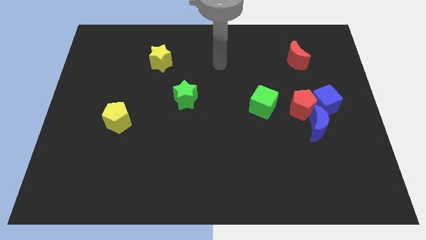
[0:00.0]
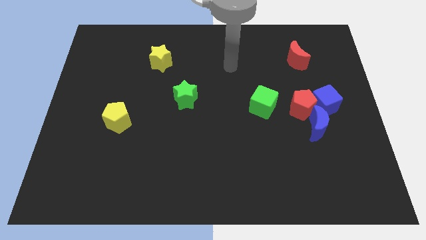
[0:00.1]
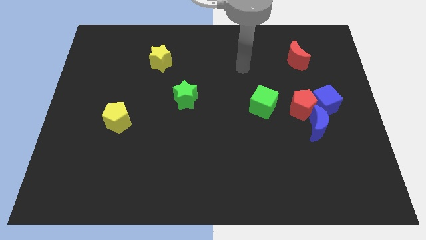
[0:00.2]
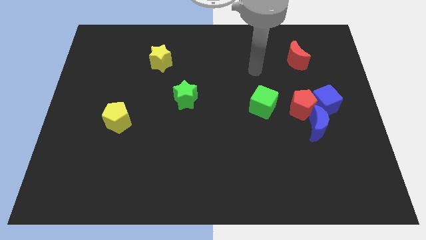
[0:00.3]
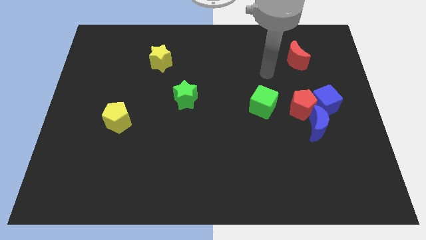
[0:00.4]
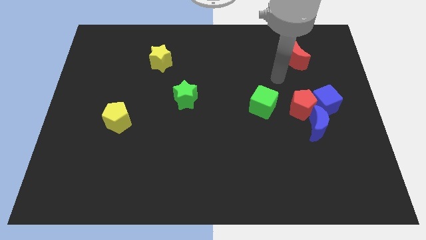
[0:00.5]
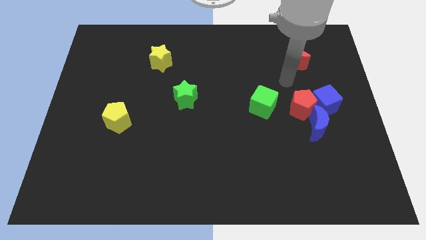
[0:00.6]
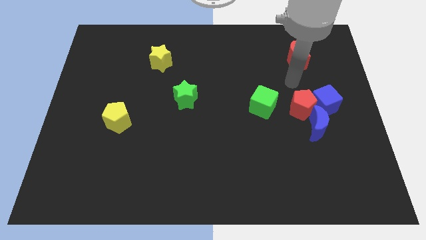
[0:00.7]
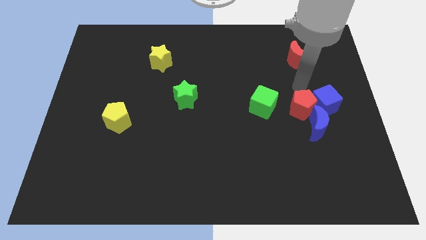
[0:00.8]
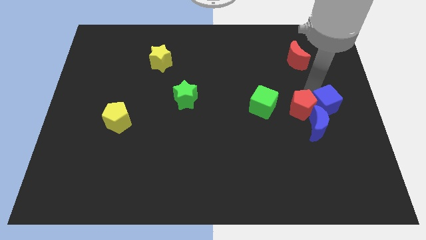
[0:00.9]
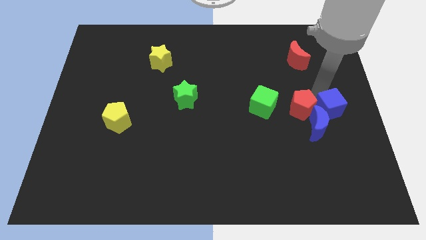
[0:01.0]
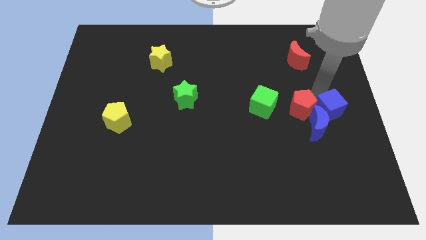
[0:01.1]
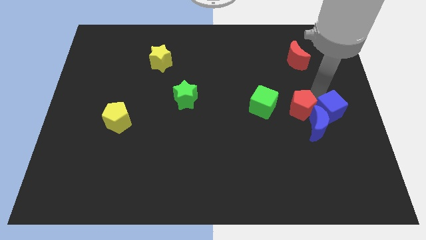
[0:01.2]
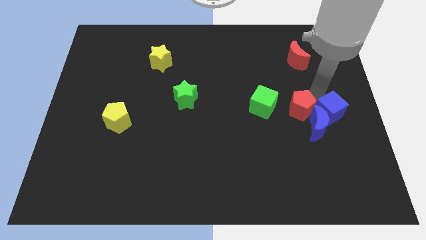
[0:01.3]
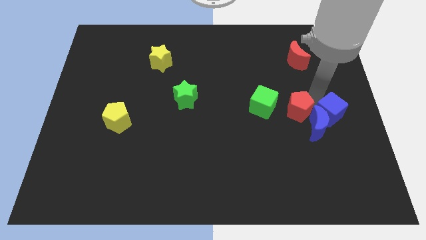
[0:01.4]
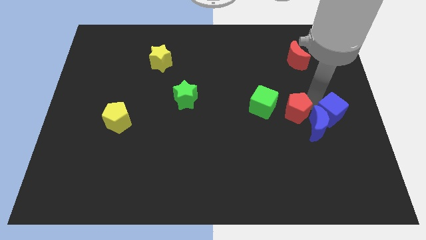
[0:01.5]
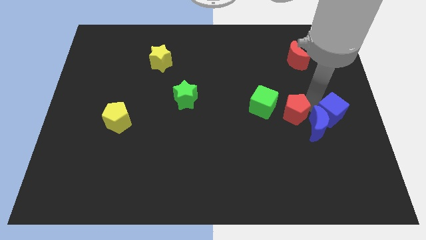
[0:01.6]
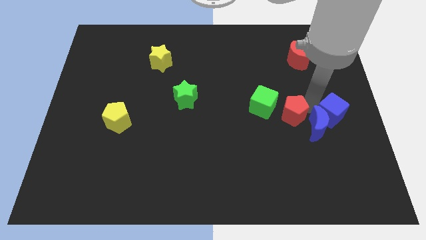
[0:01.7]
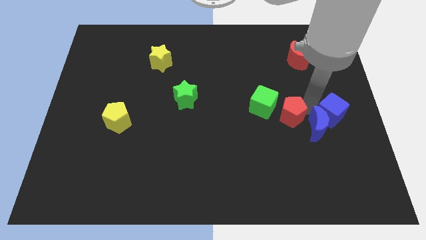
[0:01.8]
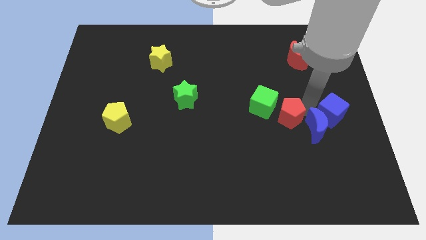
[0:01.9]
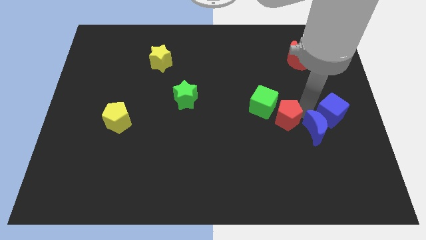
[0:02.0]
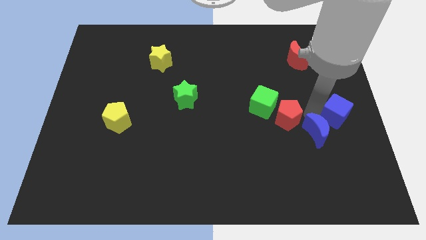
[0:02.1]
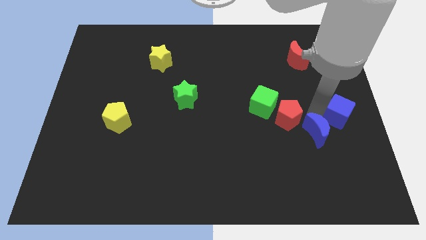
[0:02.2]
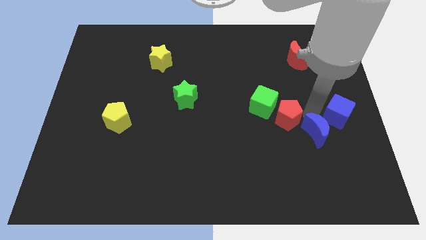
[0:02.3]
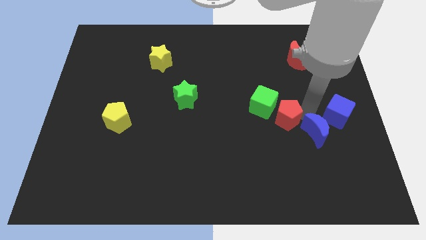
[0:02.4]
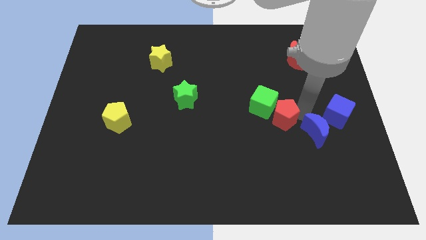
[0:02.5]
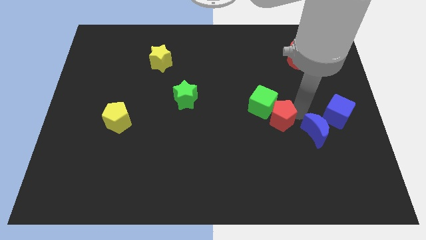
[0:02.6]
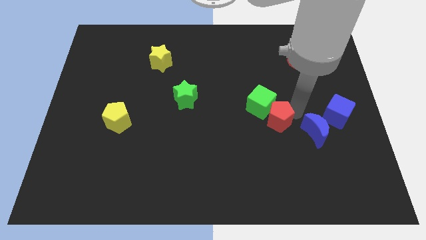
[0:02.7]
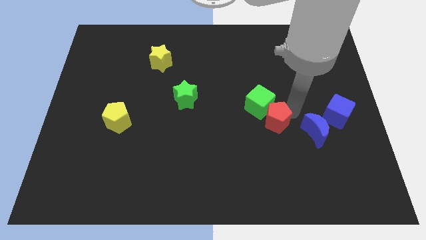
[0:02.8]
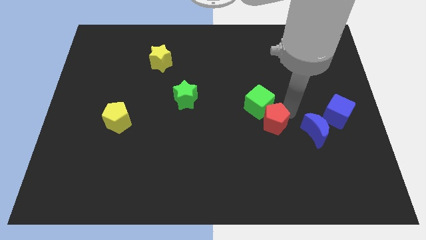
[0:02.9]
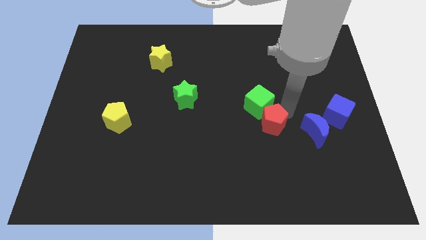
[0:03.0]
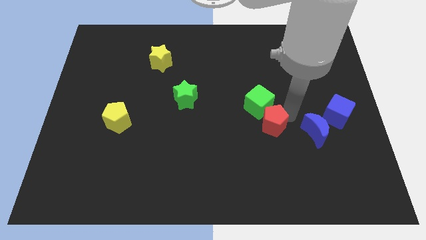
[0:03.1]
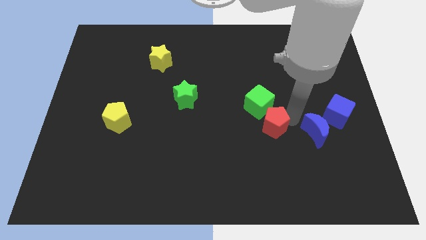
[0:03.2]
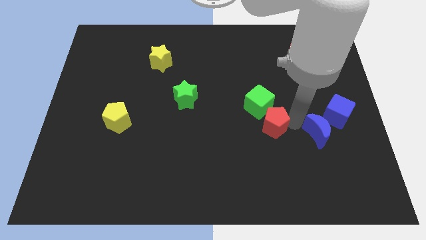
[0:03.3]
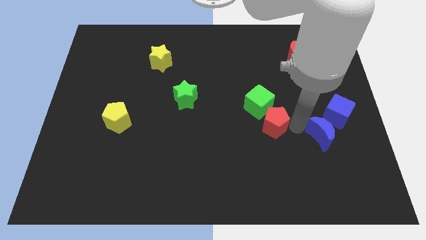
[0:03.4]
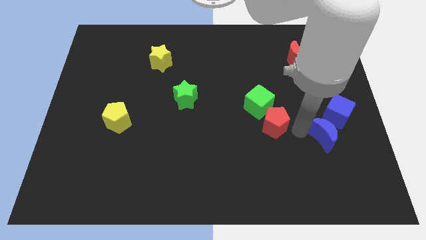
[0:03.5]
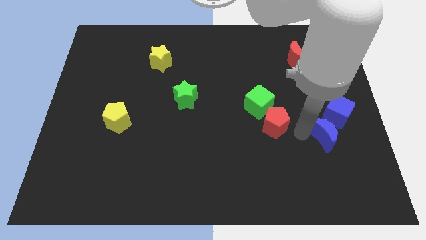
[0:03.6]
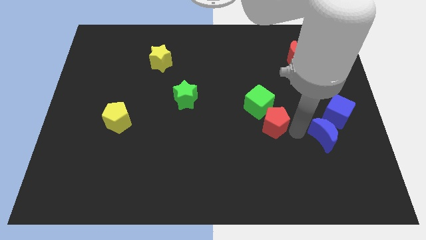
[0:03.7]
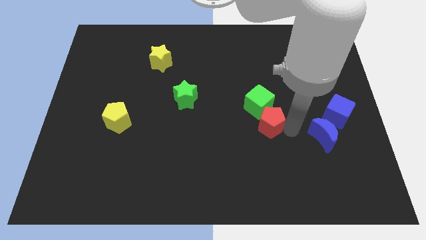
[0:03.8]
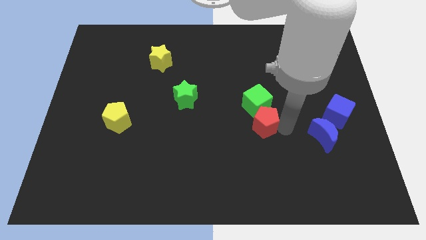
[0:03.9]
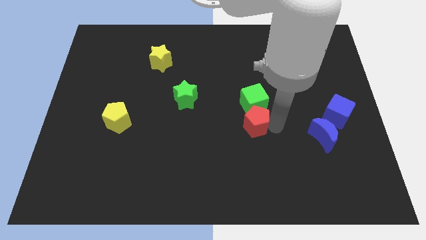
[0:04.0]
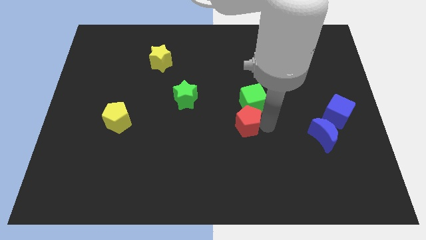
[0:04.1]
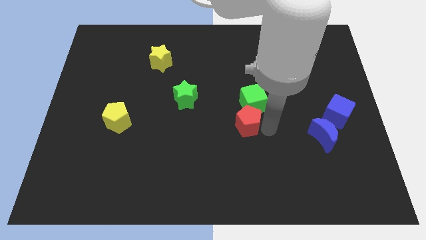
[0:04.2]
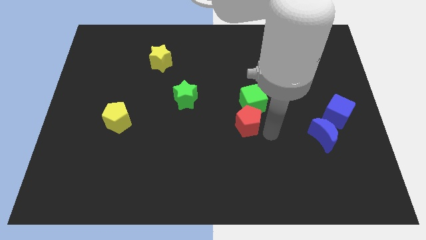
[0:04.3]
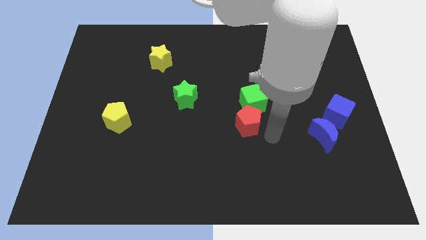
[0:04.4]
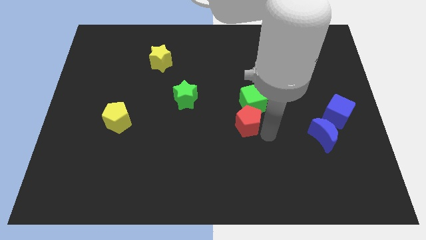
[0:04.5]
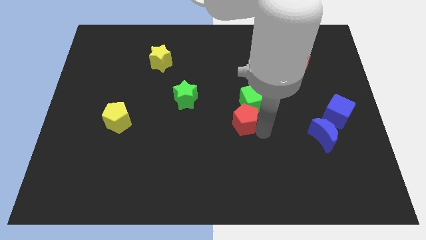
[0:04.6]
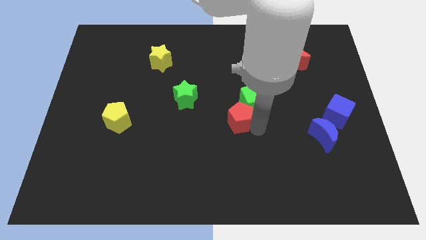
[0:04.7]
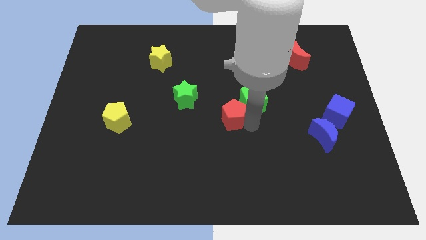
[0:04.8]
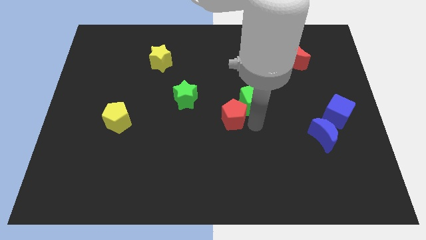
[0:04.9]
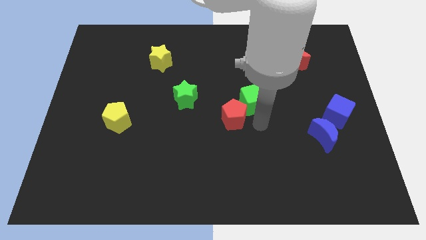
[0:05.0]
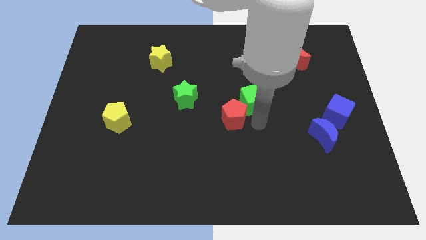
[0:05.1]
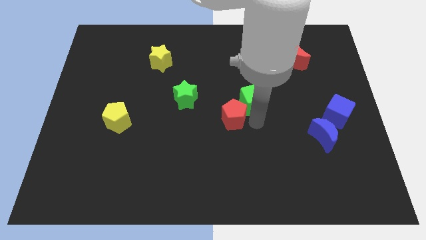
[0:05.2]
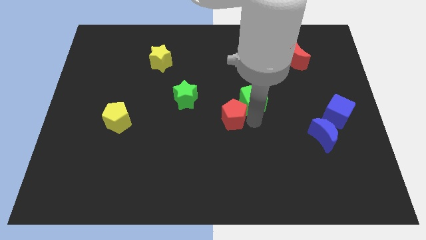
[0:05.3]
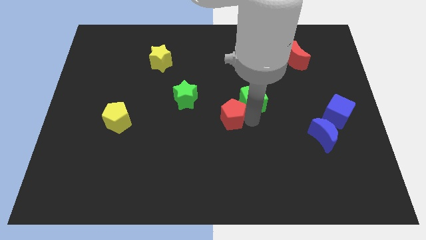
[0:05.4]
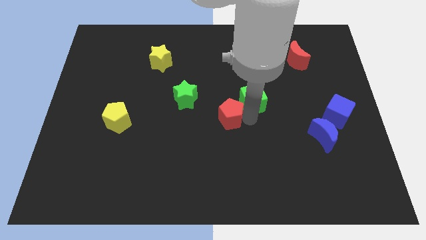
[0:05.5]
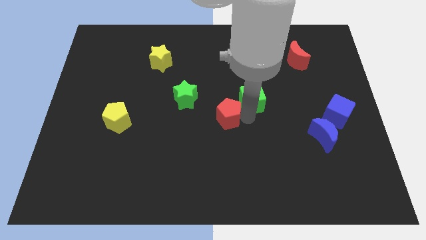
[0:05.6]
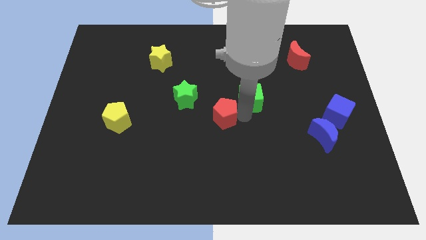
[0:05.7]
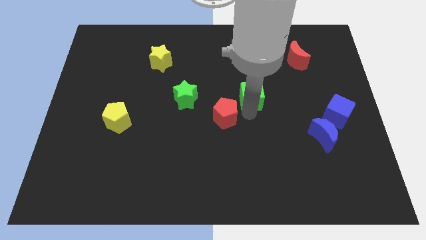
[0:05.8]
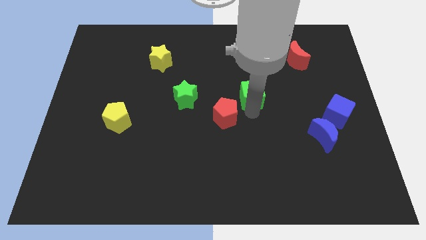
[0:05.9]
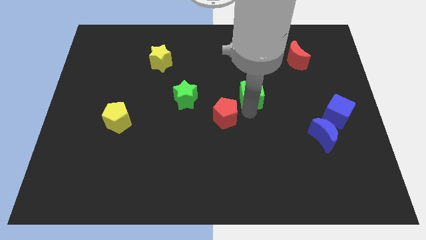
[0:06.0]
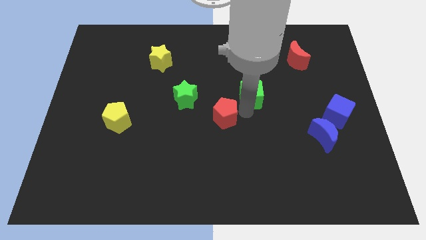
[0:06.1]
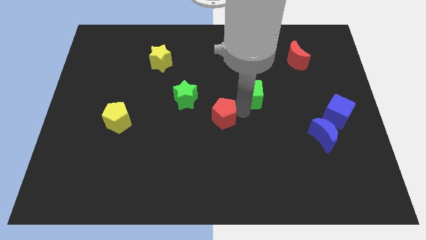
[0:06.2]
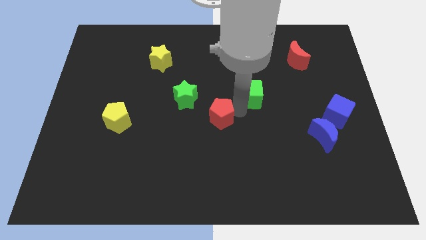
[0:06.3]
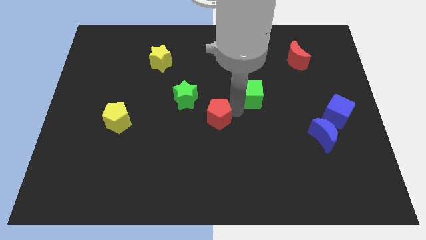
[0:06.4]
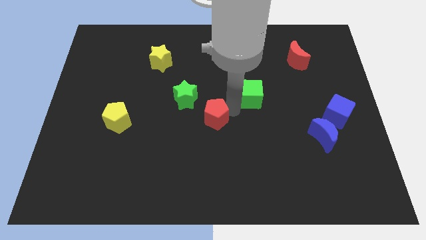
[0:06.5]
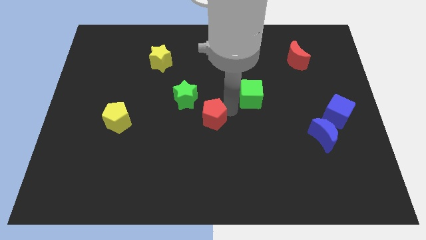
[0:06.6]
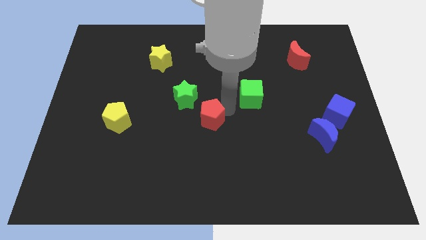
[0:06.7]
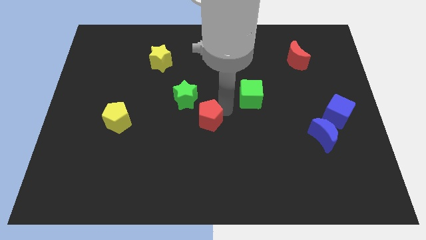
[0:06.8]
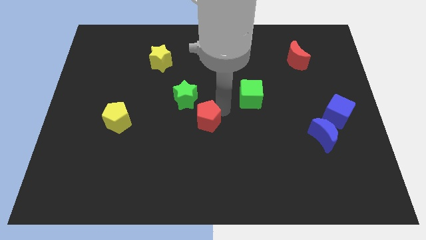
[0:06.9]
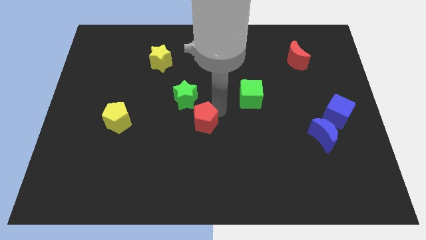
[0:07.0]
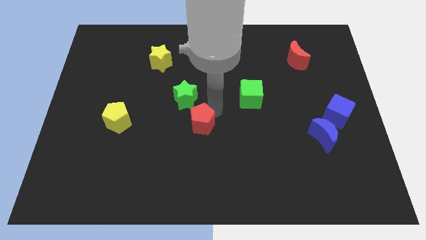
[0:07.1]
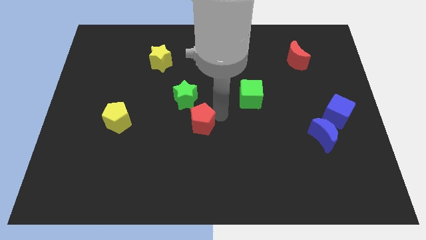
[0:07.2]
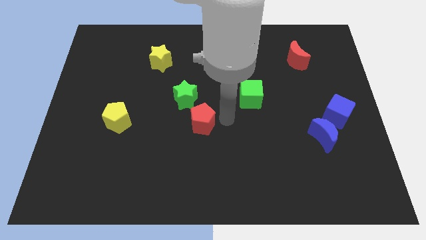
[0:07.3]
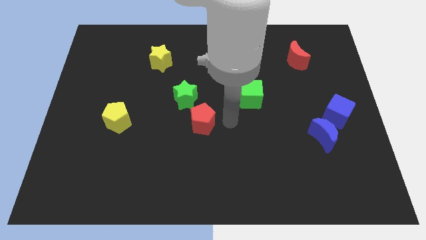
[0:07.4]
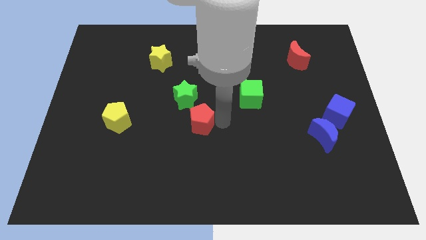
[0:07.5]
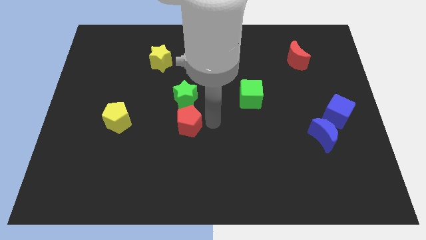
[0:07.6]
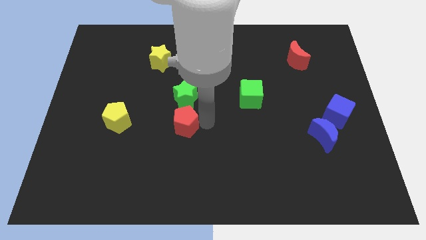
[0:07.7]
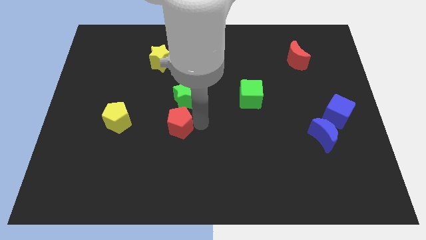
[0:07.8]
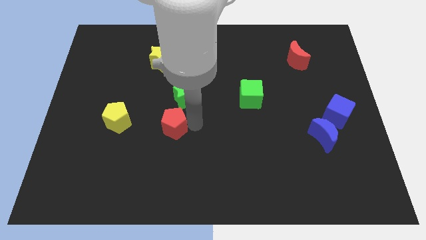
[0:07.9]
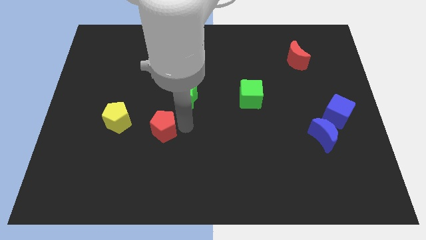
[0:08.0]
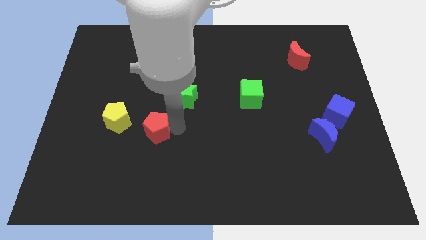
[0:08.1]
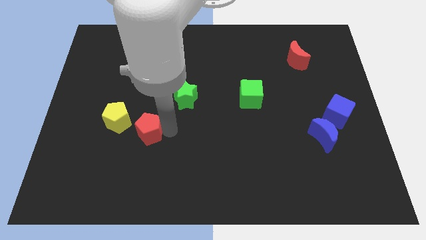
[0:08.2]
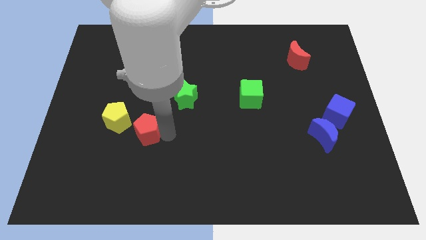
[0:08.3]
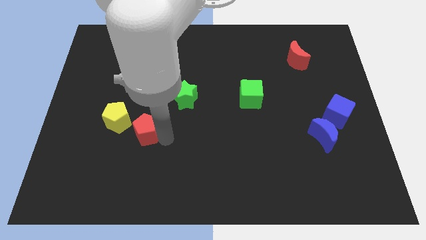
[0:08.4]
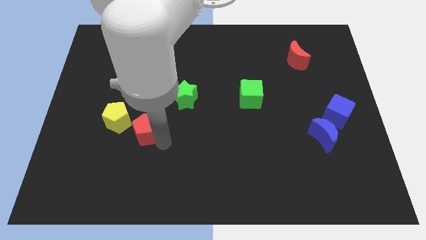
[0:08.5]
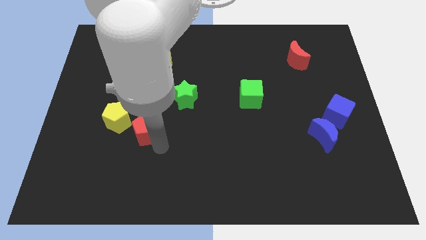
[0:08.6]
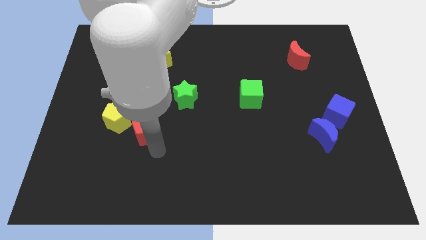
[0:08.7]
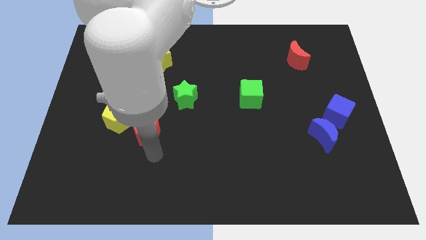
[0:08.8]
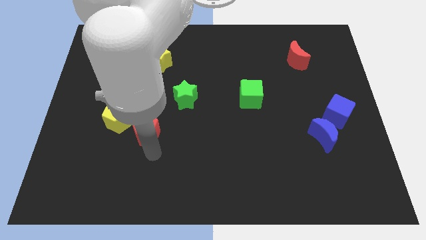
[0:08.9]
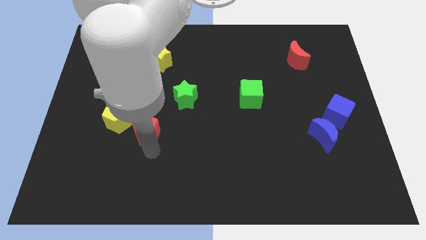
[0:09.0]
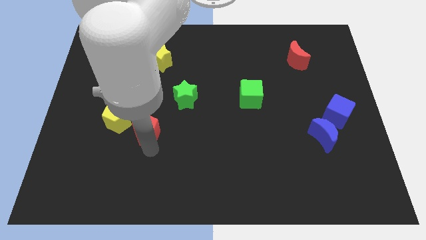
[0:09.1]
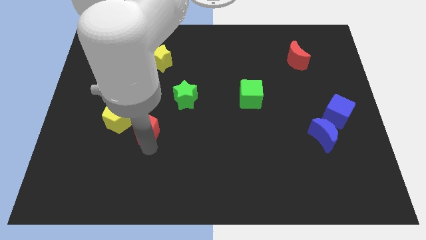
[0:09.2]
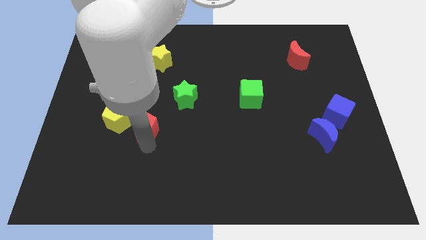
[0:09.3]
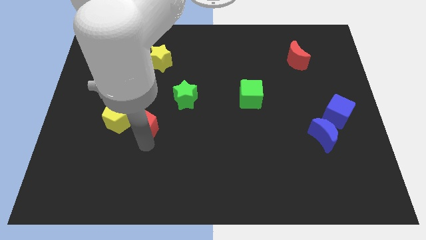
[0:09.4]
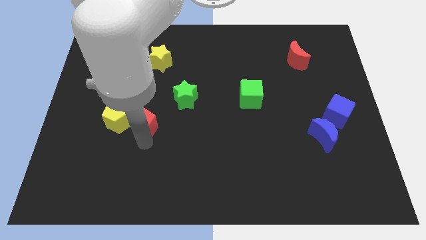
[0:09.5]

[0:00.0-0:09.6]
move the red pentagon to the yellow pentagon
